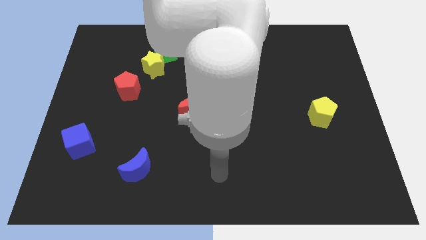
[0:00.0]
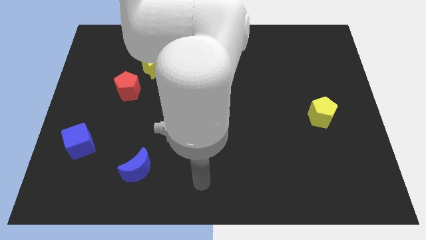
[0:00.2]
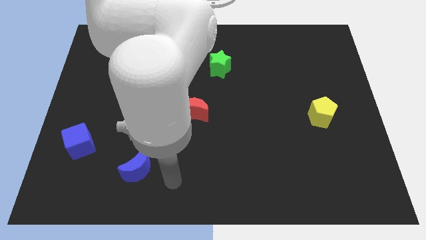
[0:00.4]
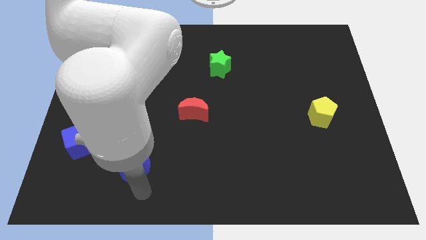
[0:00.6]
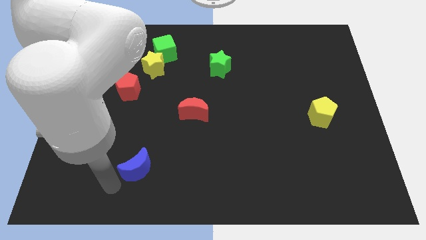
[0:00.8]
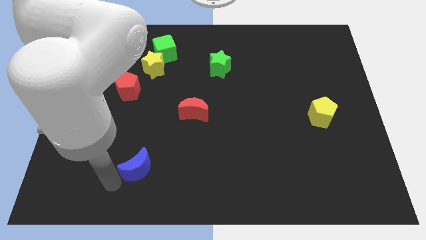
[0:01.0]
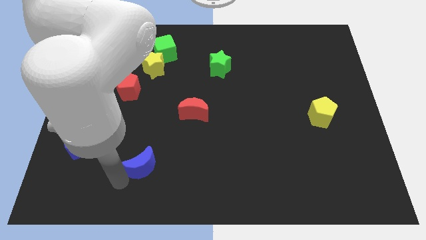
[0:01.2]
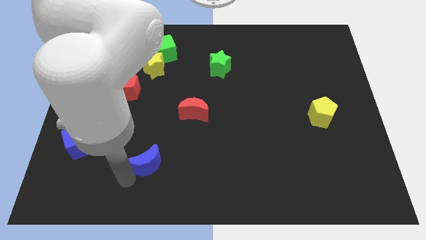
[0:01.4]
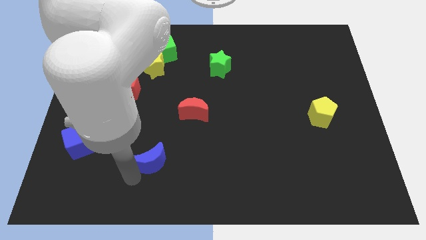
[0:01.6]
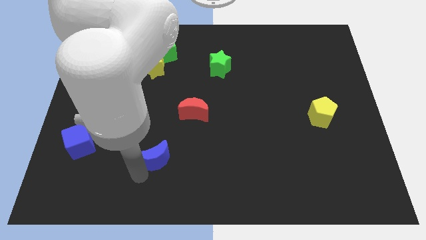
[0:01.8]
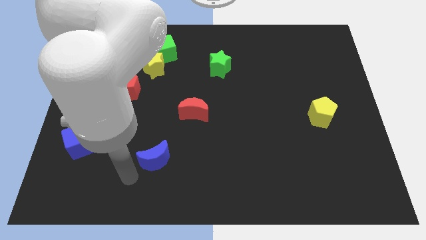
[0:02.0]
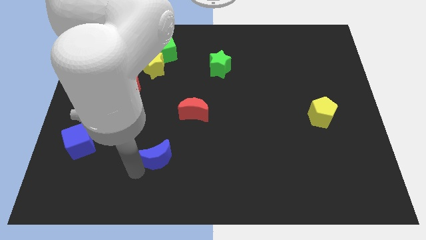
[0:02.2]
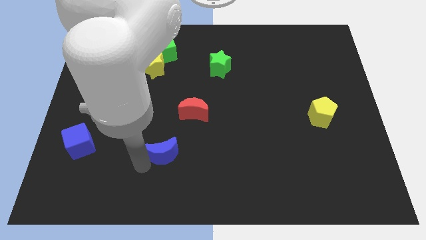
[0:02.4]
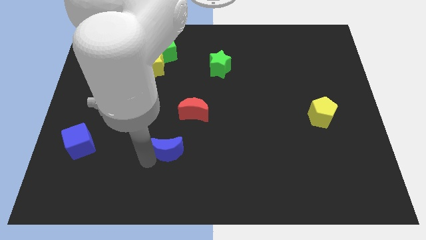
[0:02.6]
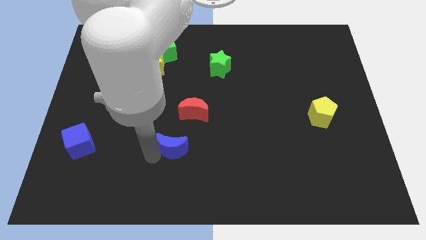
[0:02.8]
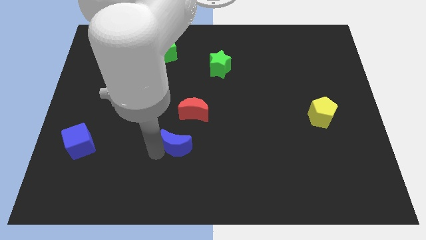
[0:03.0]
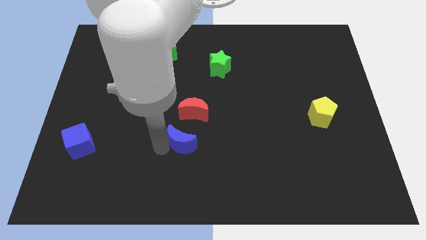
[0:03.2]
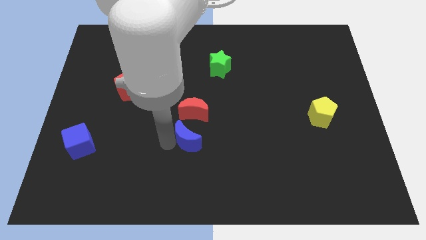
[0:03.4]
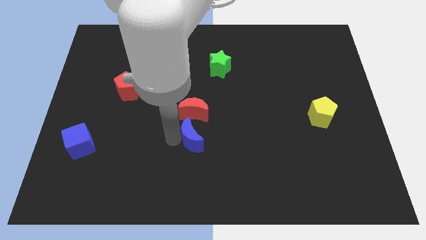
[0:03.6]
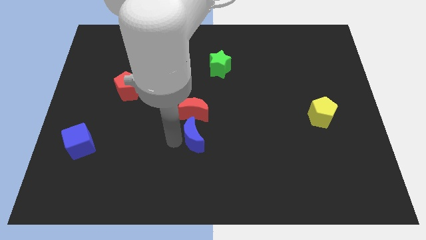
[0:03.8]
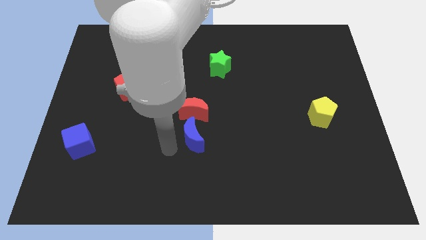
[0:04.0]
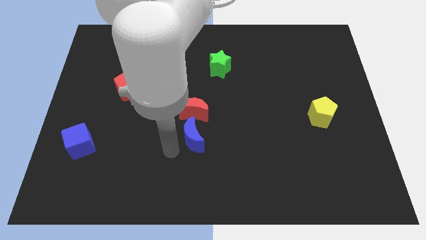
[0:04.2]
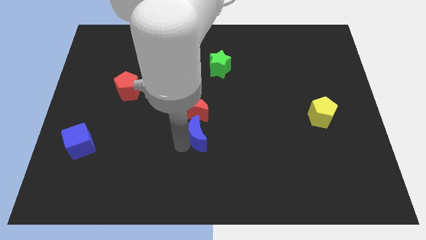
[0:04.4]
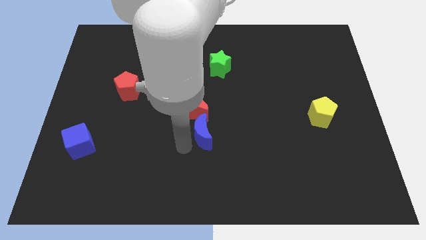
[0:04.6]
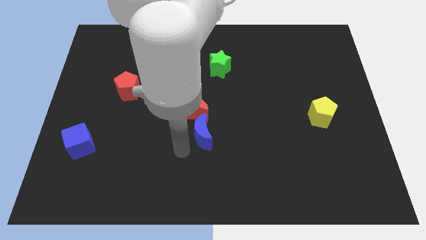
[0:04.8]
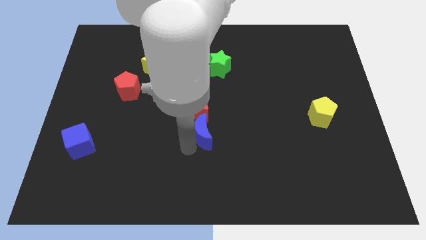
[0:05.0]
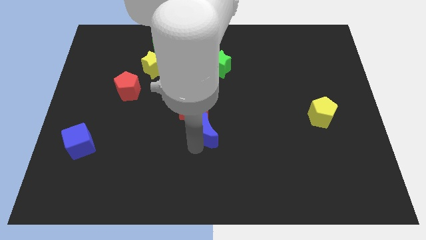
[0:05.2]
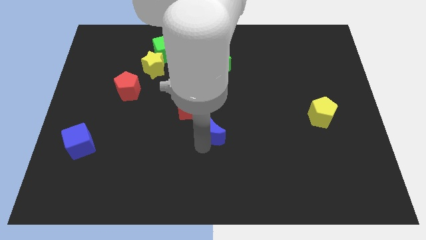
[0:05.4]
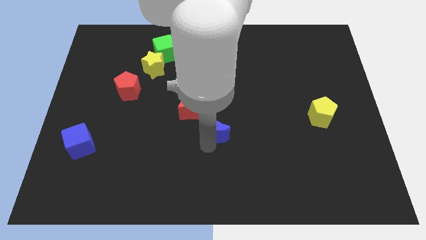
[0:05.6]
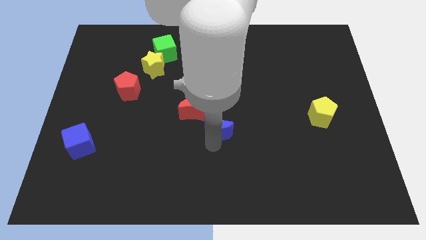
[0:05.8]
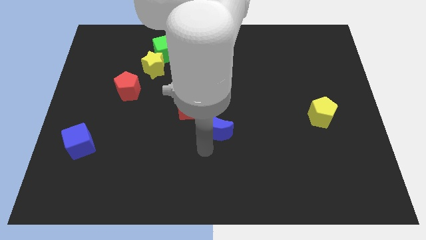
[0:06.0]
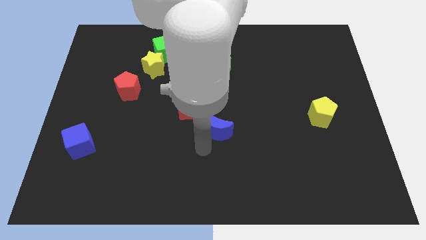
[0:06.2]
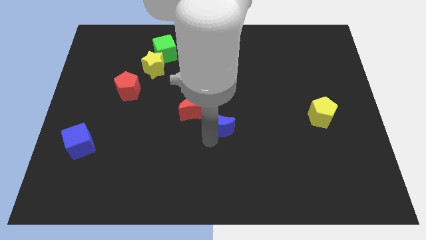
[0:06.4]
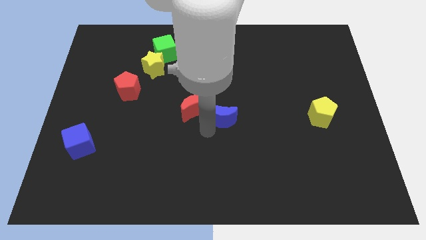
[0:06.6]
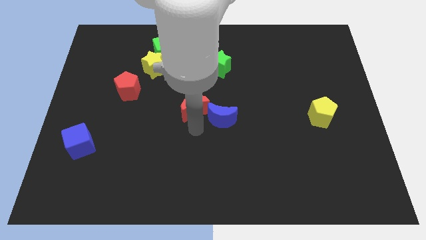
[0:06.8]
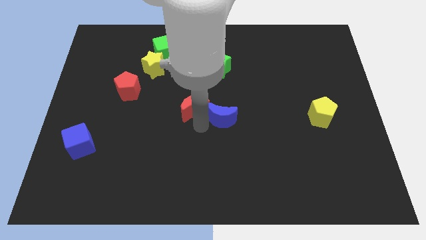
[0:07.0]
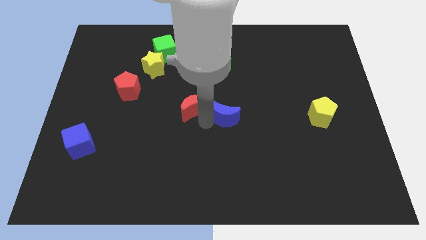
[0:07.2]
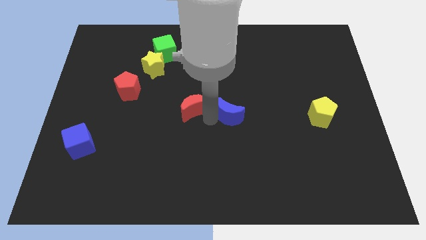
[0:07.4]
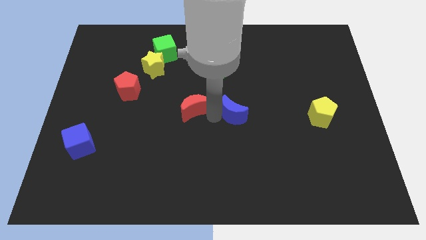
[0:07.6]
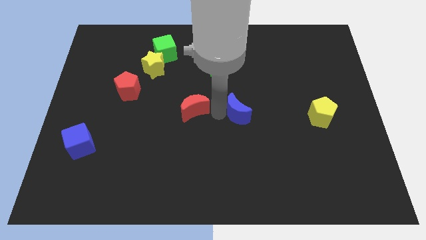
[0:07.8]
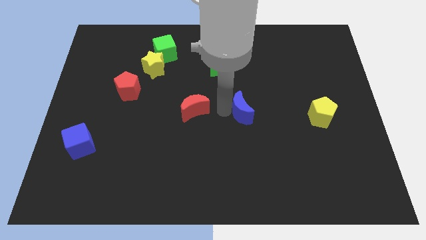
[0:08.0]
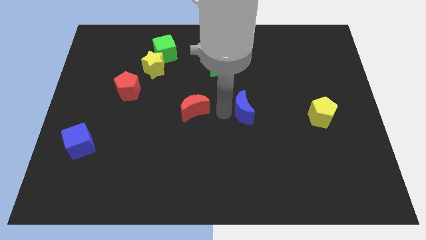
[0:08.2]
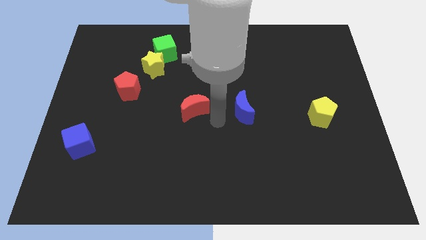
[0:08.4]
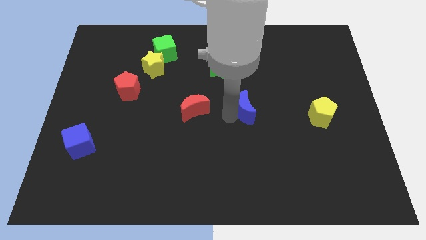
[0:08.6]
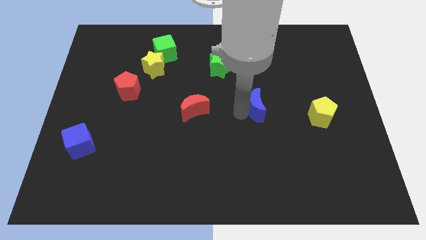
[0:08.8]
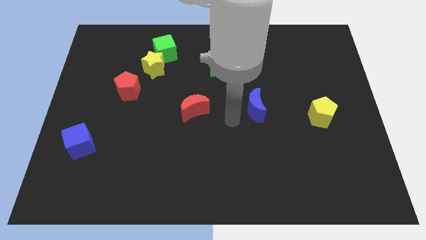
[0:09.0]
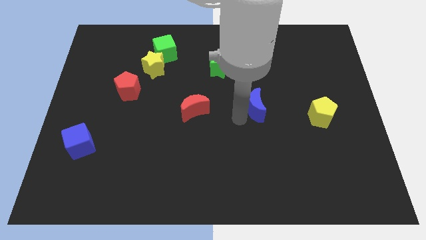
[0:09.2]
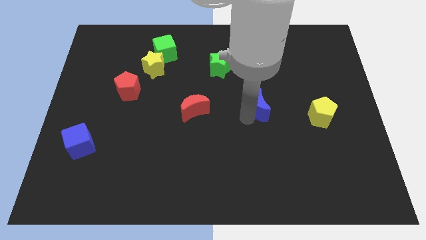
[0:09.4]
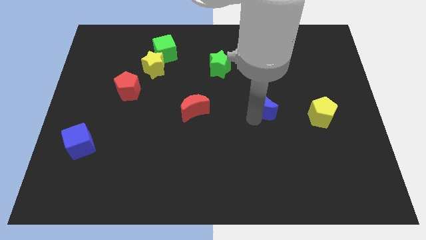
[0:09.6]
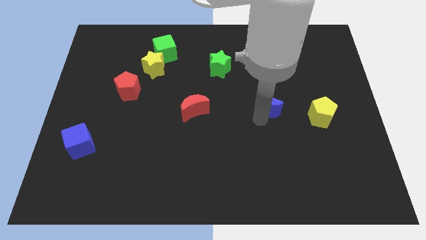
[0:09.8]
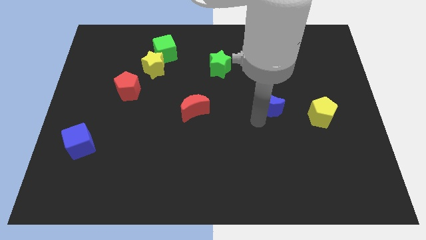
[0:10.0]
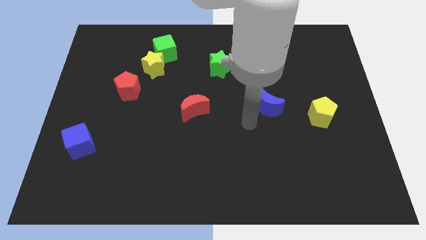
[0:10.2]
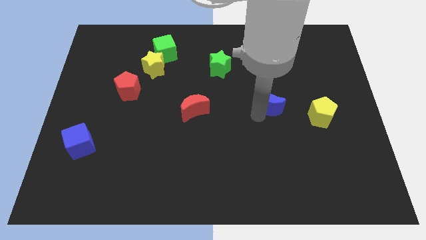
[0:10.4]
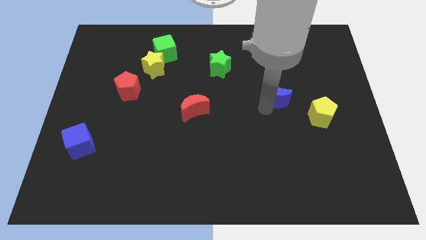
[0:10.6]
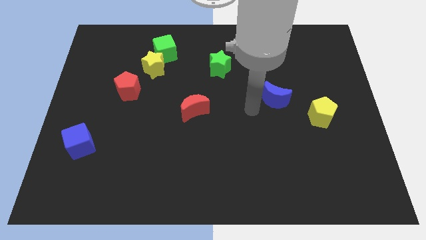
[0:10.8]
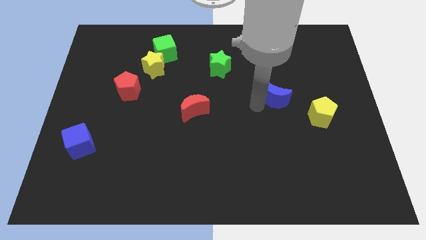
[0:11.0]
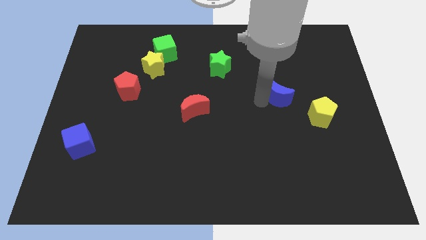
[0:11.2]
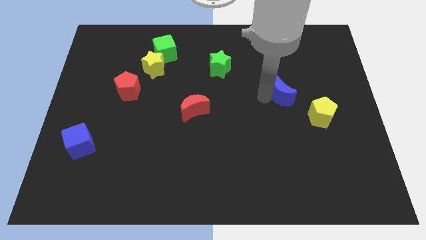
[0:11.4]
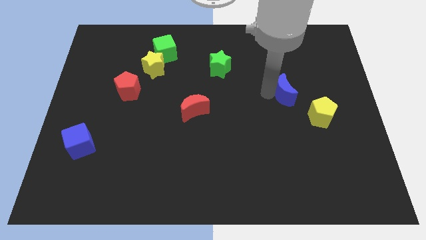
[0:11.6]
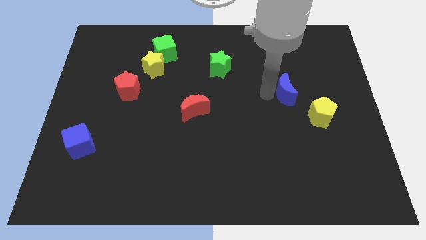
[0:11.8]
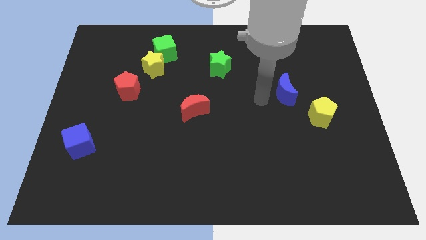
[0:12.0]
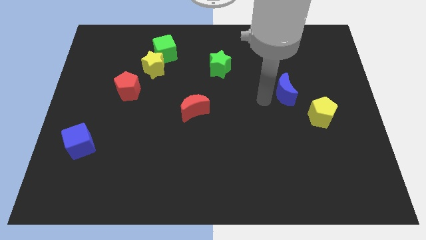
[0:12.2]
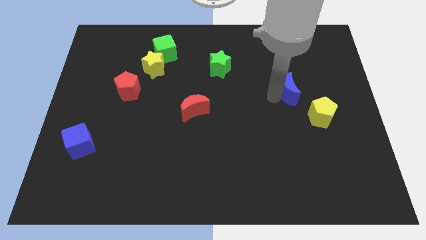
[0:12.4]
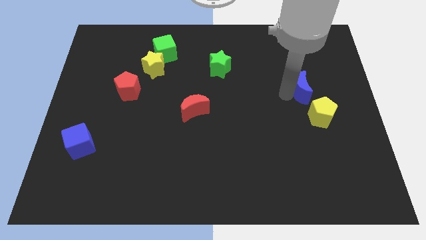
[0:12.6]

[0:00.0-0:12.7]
slide the blue moon to the top of the yellow pentagon

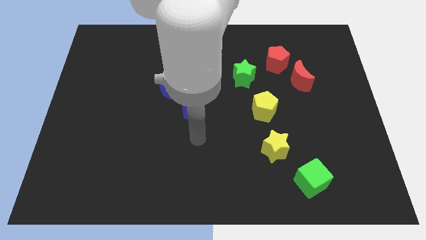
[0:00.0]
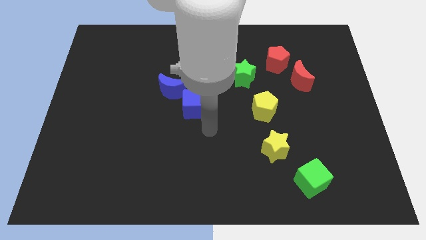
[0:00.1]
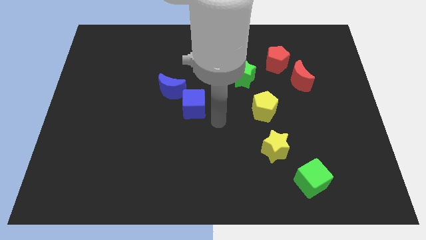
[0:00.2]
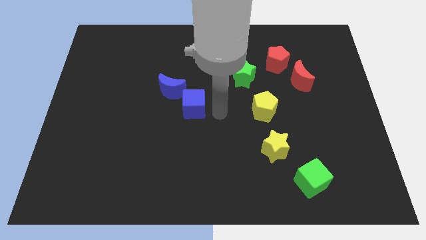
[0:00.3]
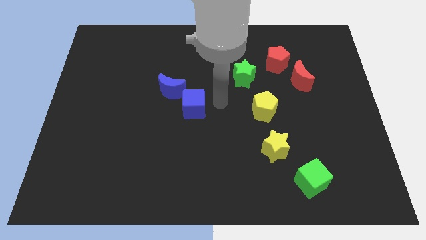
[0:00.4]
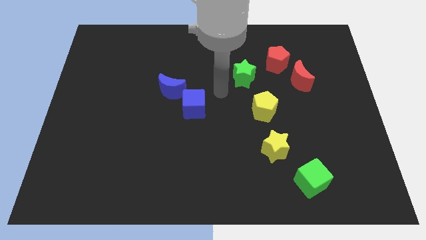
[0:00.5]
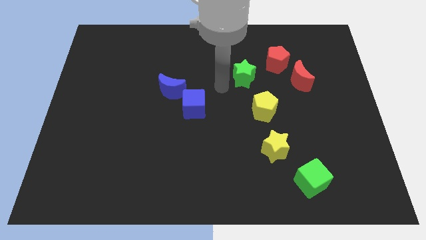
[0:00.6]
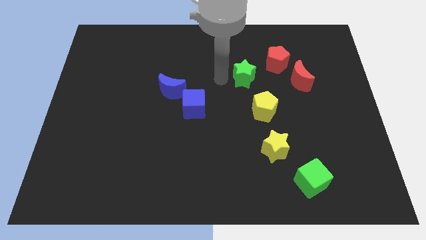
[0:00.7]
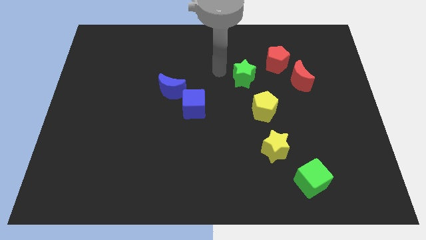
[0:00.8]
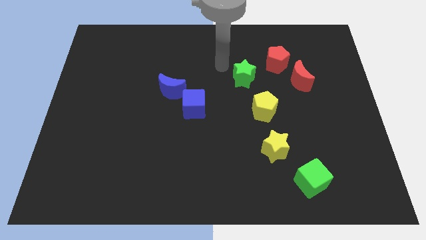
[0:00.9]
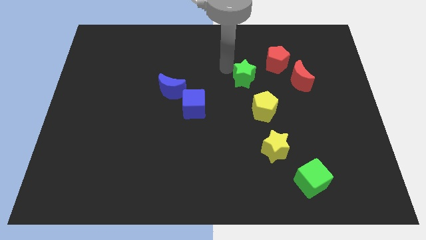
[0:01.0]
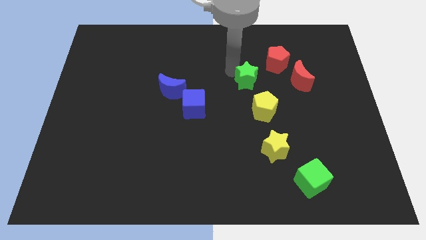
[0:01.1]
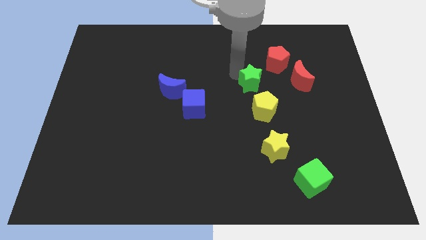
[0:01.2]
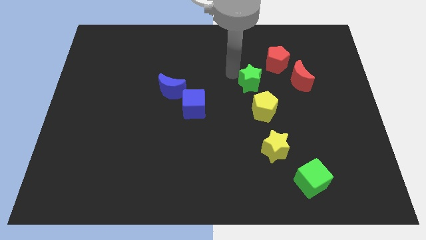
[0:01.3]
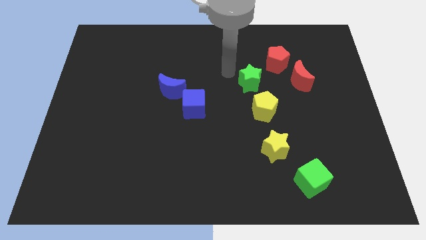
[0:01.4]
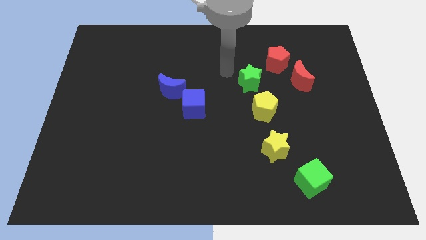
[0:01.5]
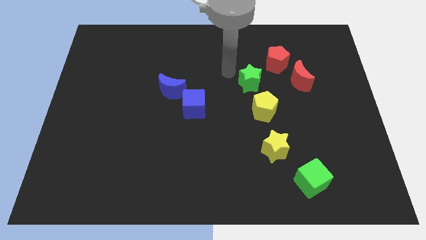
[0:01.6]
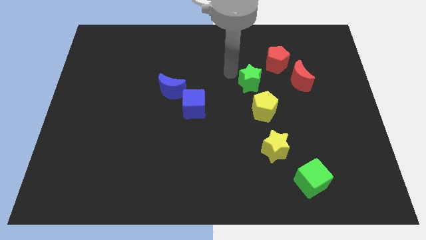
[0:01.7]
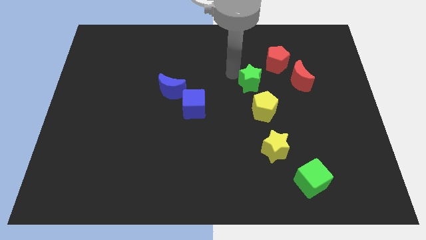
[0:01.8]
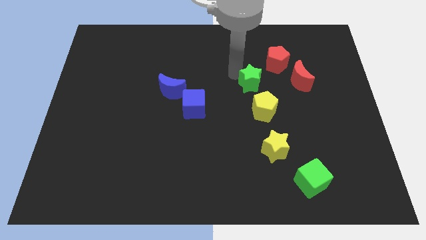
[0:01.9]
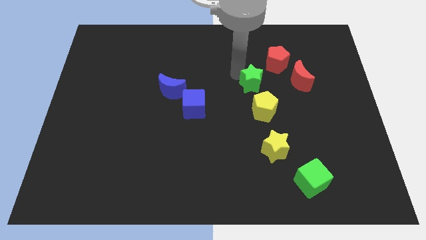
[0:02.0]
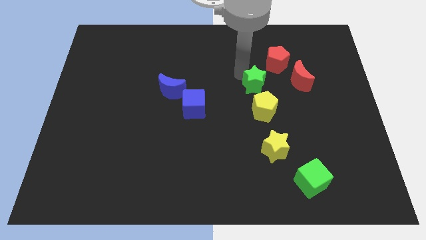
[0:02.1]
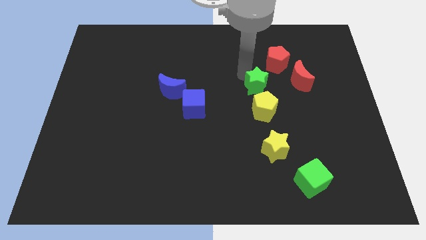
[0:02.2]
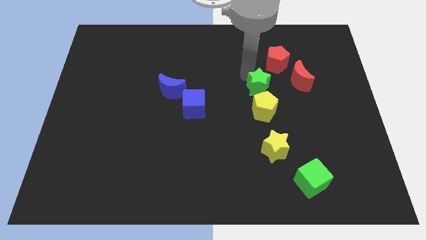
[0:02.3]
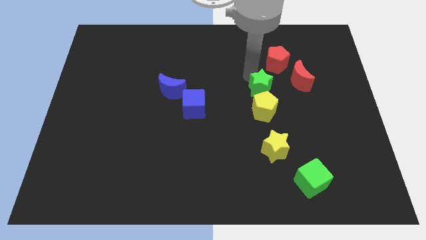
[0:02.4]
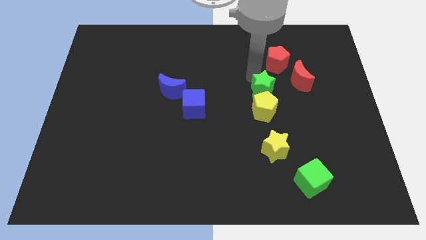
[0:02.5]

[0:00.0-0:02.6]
slide the green star diagonally down and to the left of the red moon
